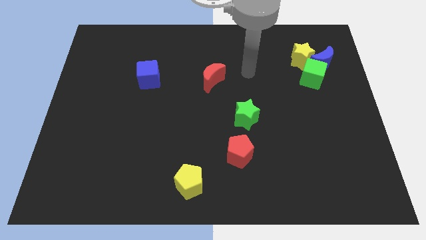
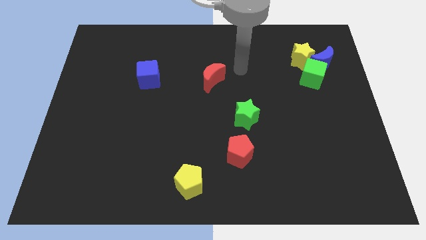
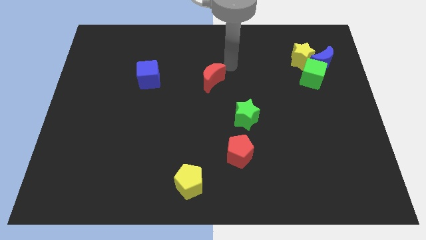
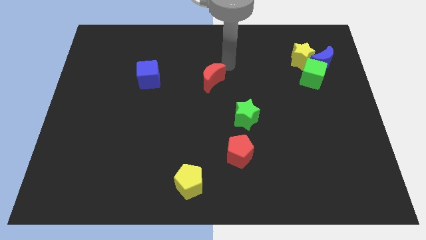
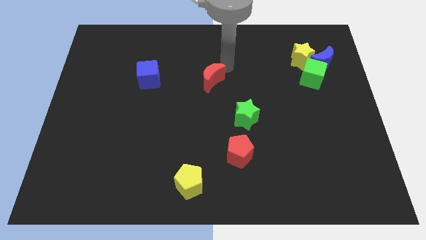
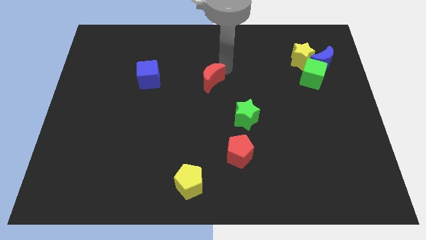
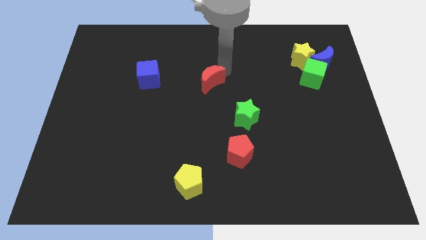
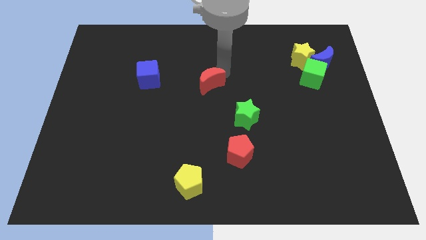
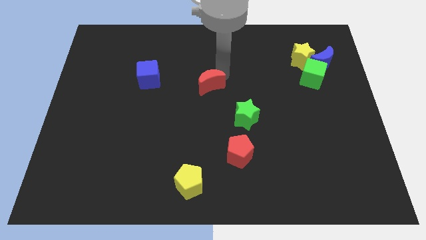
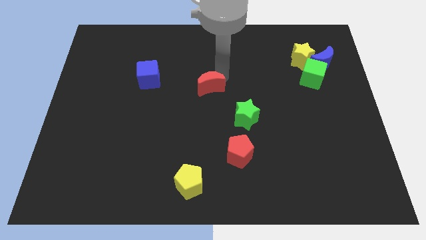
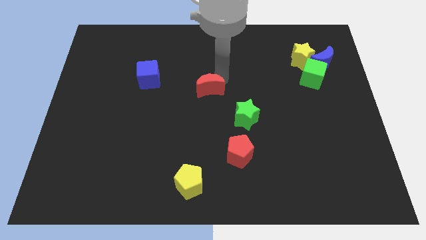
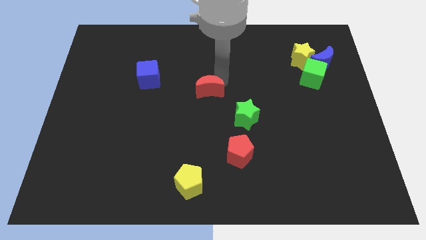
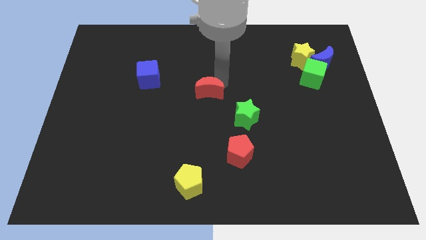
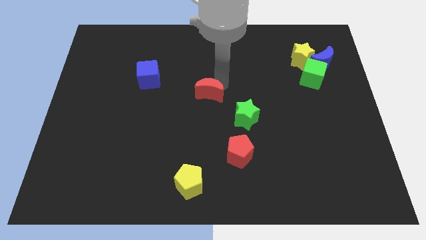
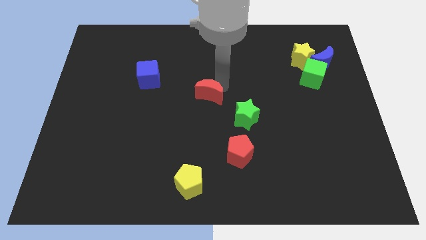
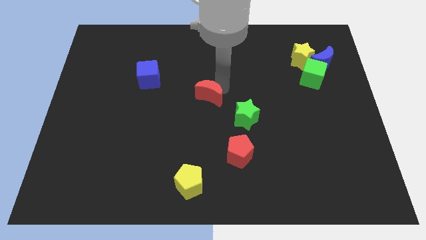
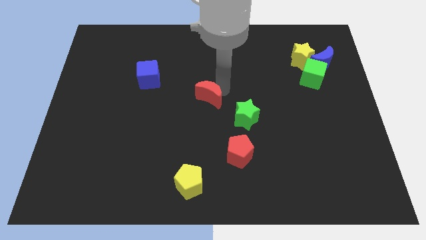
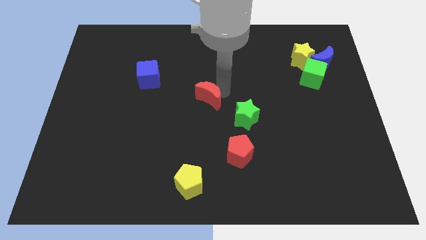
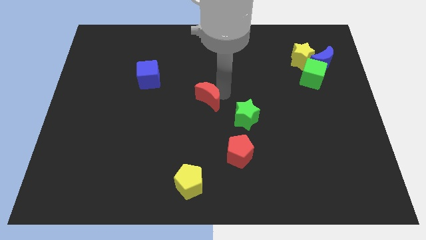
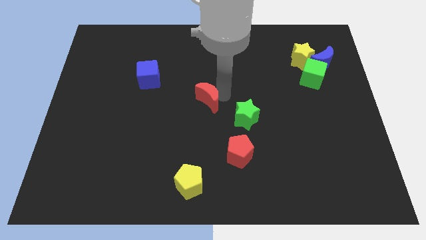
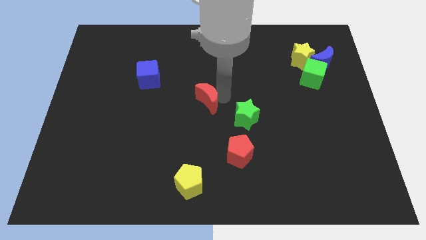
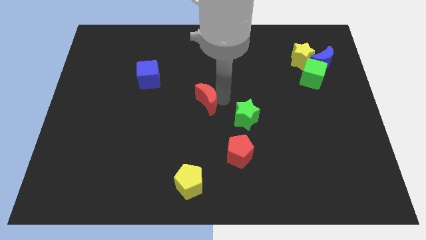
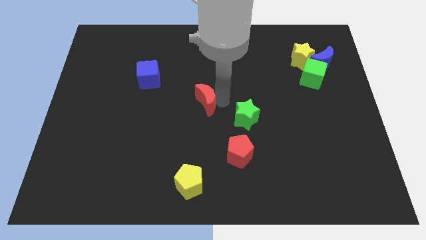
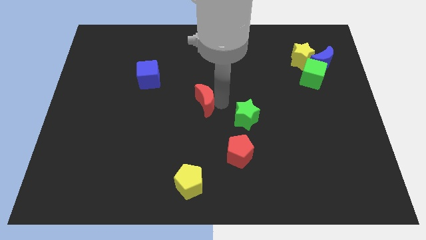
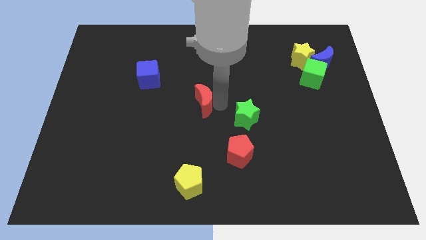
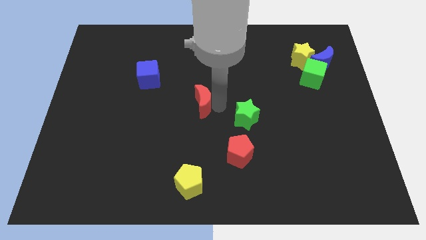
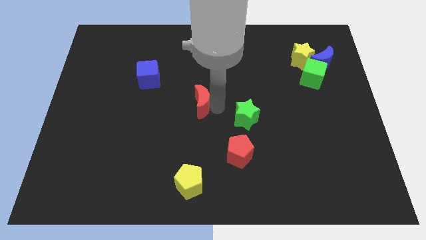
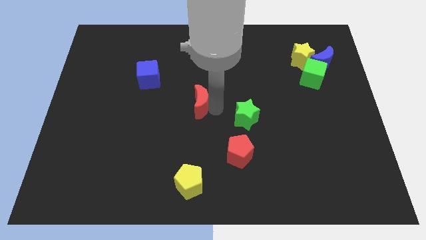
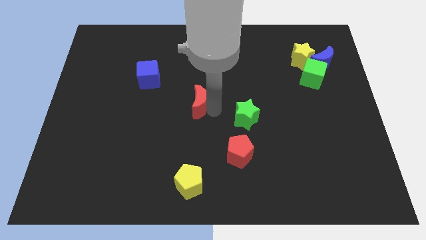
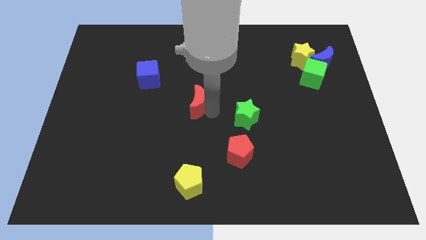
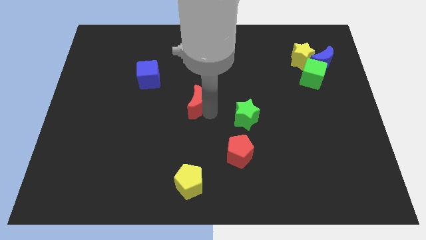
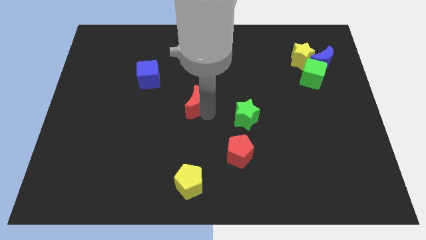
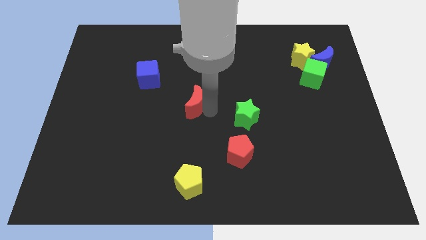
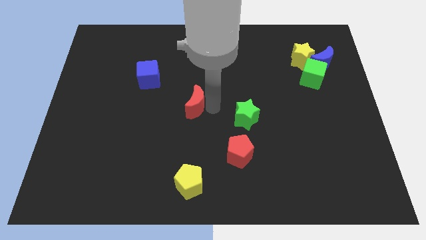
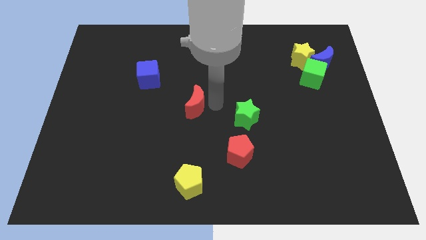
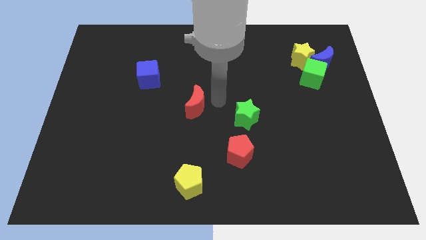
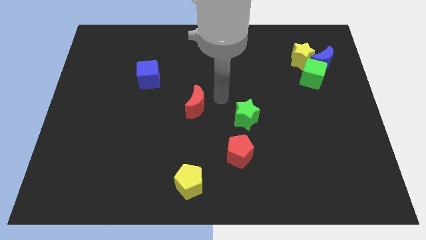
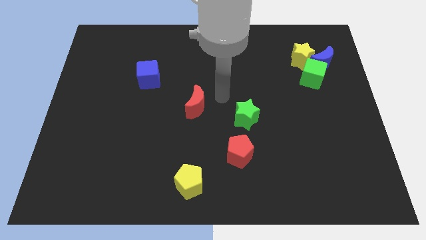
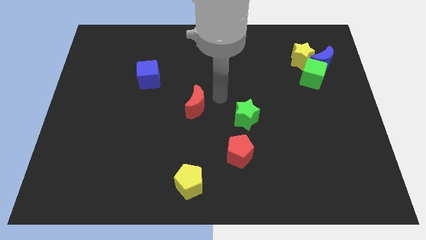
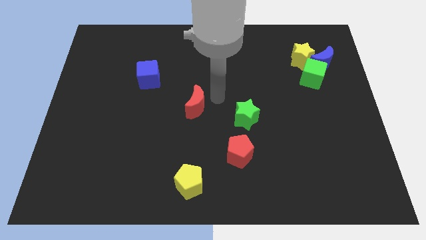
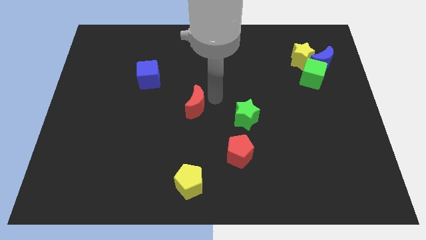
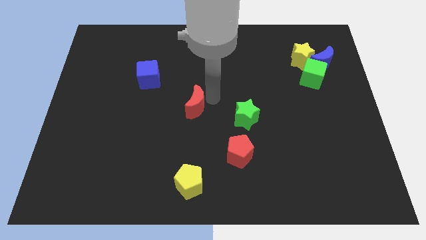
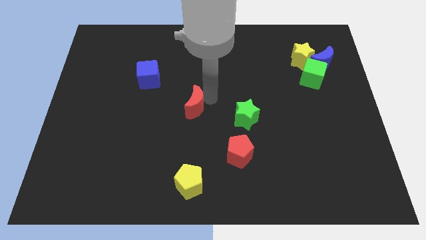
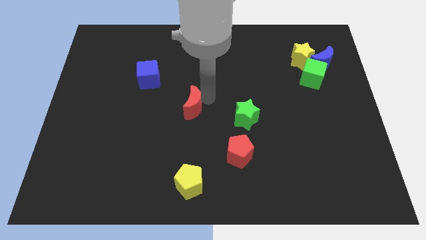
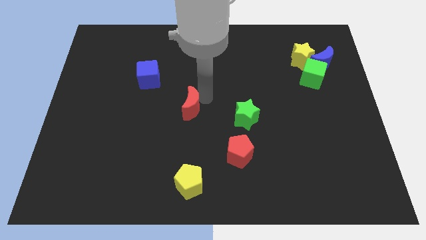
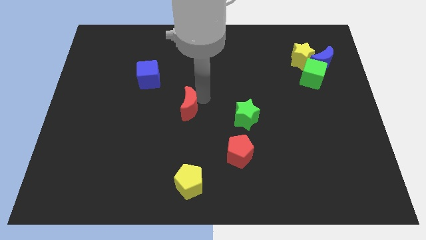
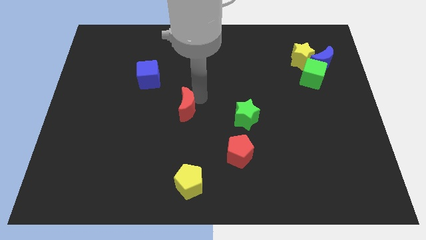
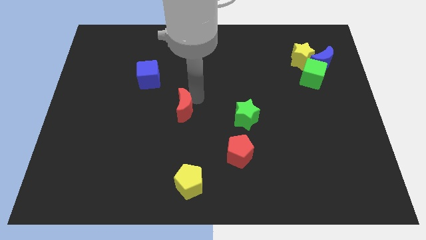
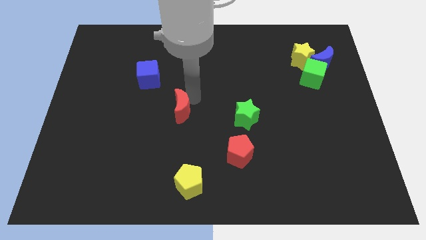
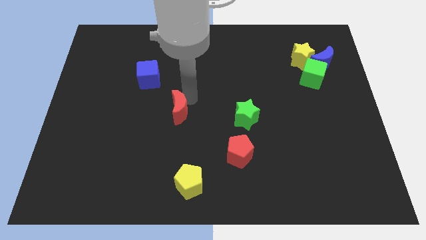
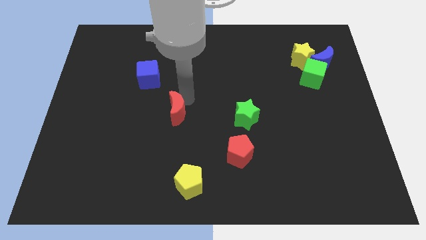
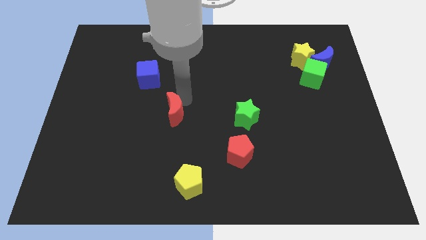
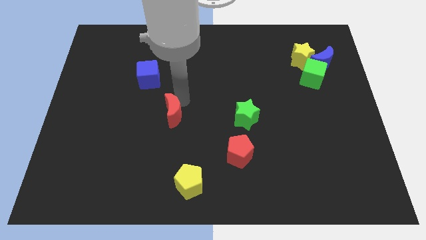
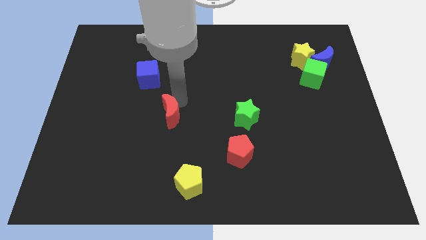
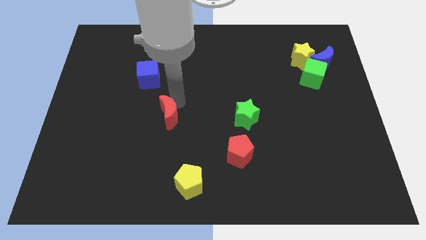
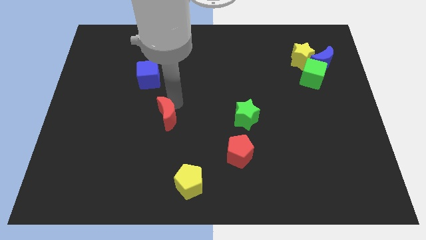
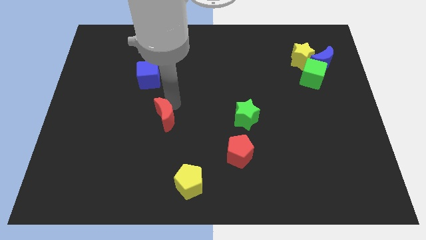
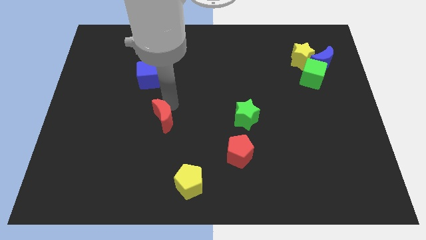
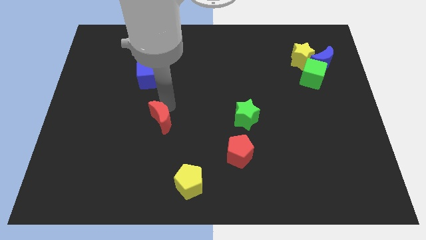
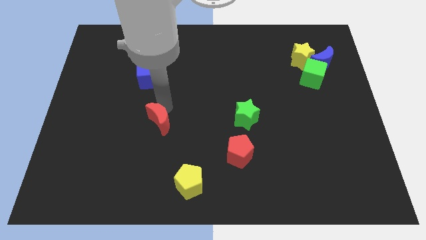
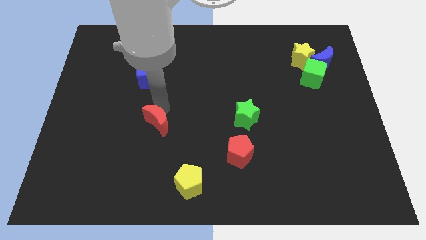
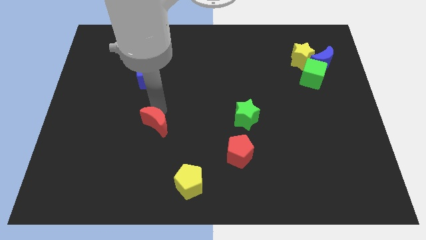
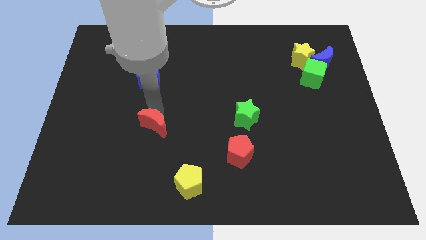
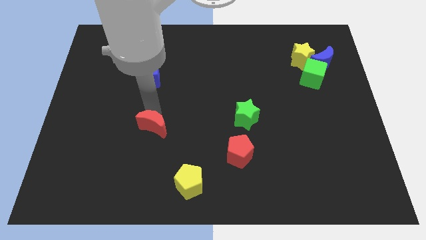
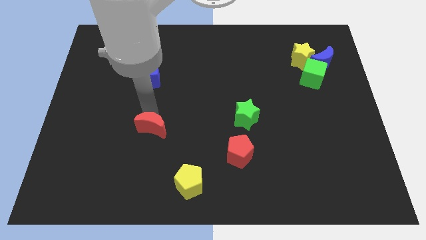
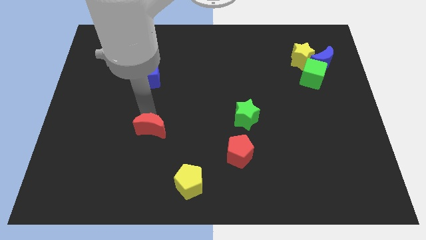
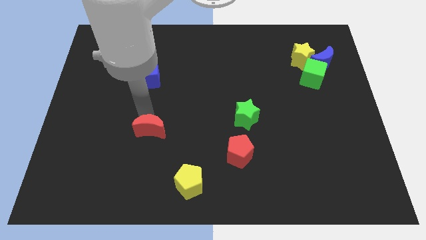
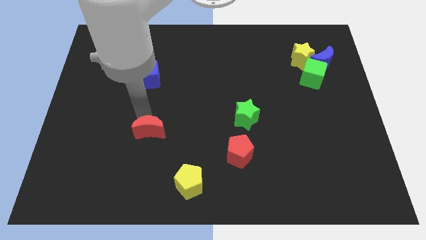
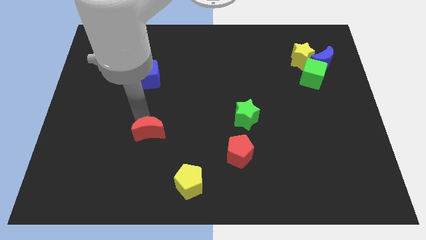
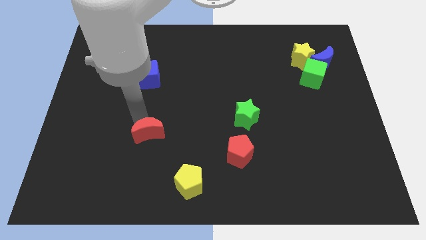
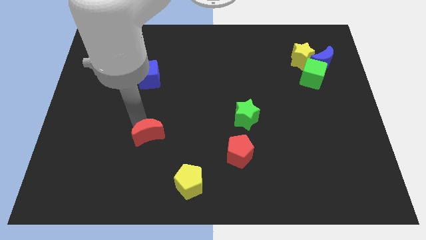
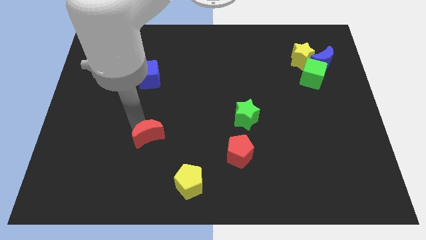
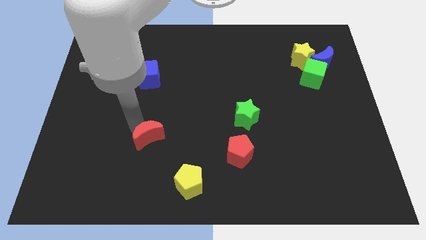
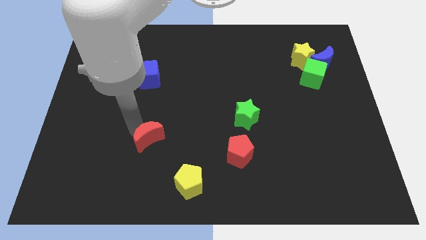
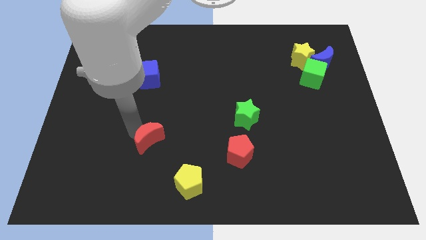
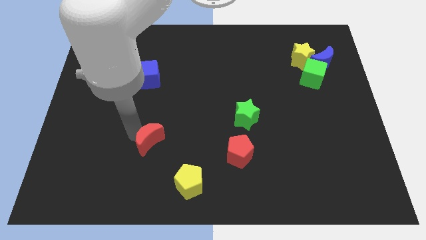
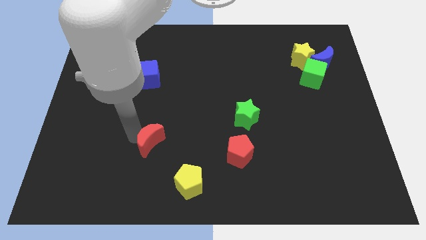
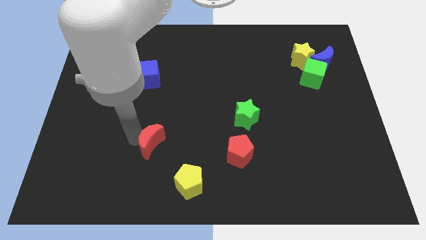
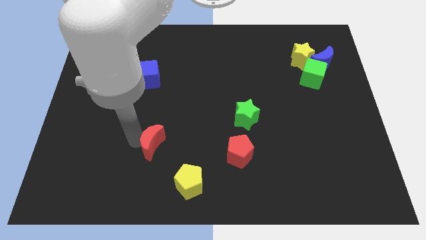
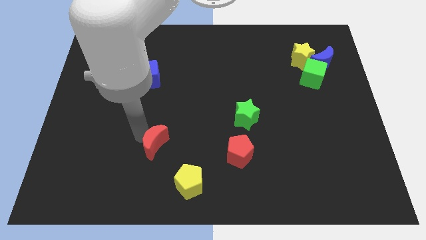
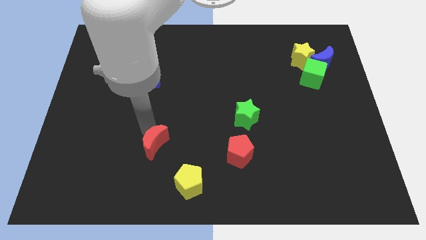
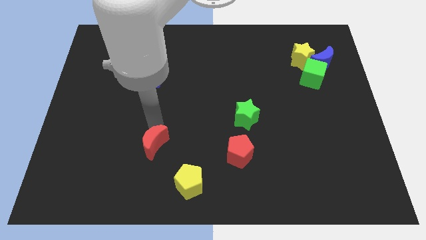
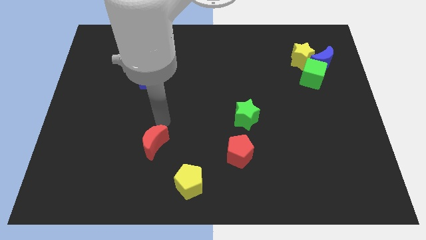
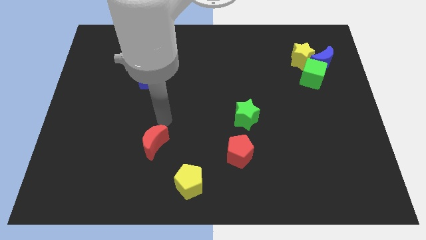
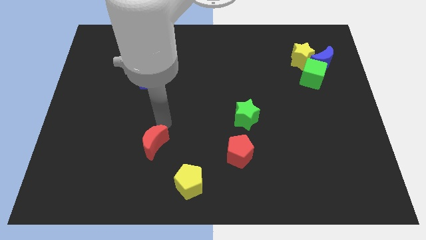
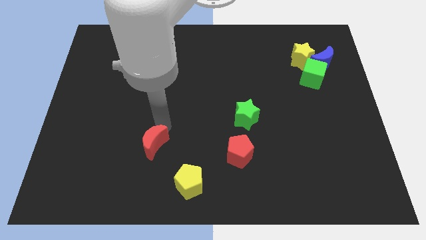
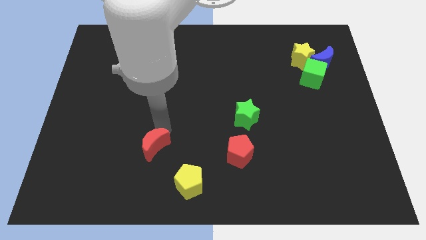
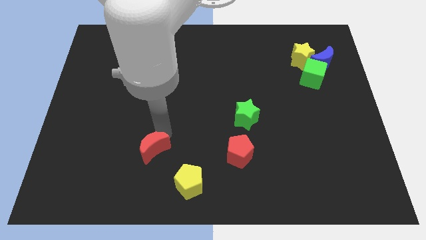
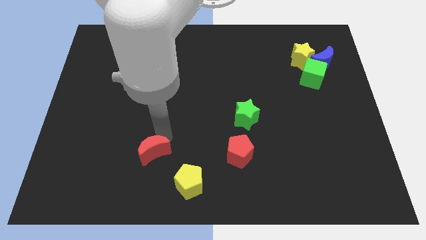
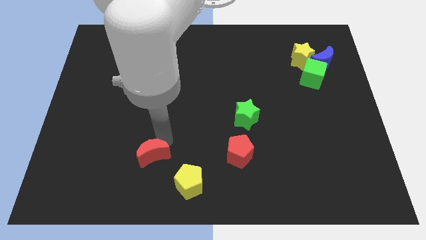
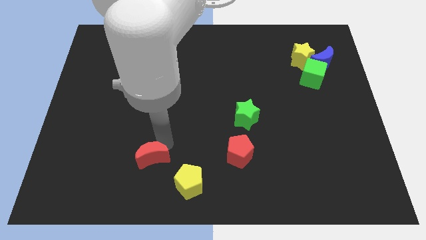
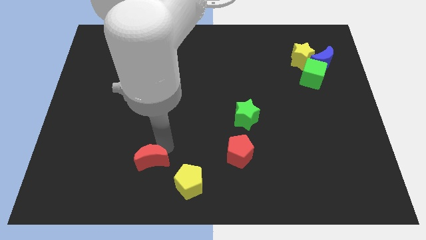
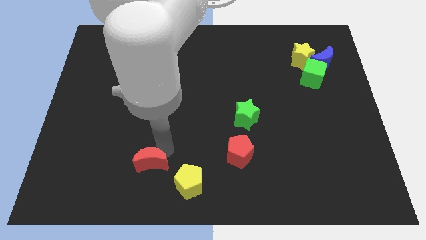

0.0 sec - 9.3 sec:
slide the red moon to the left side of the yellow pentagon
